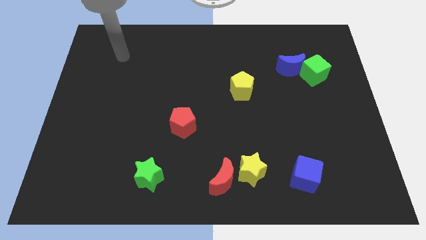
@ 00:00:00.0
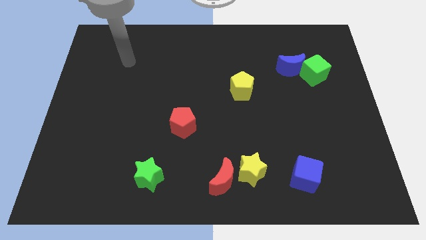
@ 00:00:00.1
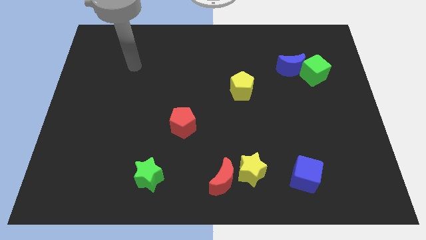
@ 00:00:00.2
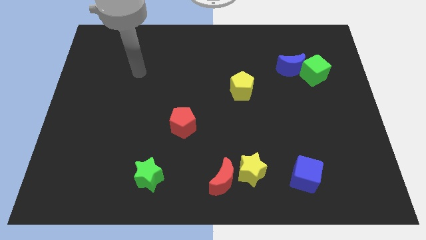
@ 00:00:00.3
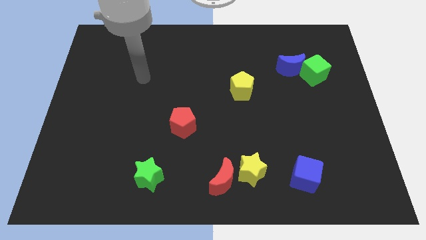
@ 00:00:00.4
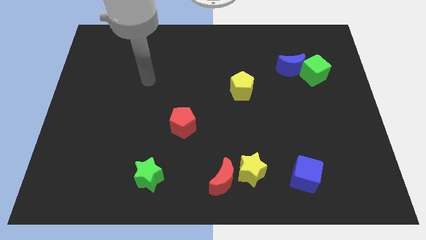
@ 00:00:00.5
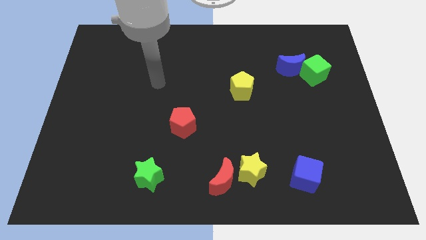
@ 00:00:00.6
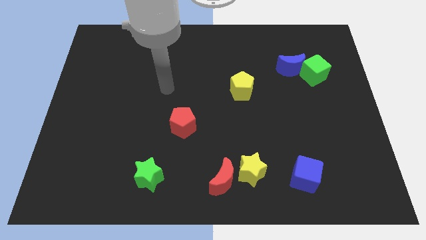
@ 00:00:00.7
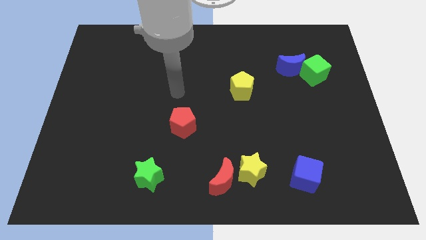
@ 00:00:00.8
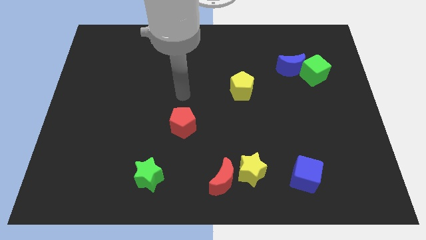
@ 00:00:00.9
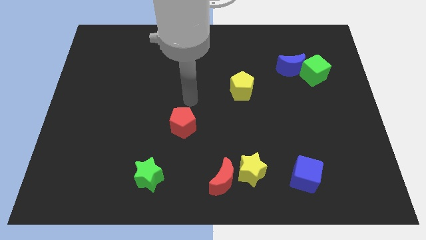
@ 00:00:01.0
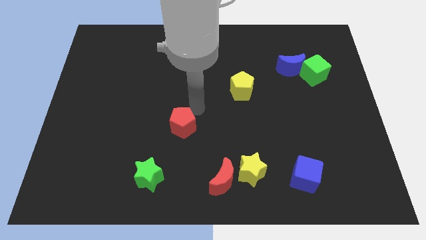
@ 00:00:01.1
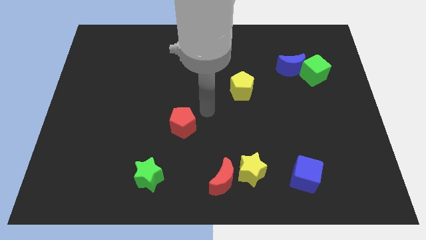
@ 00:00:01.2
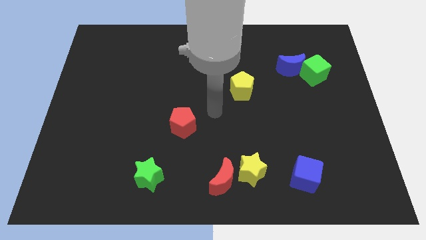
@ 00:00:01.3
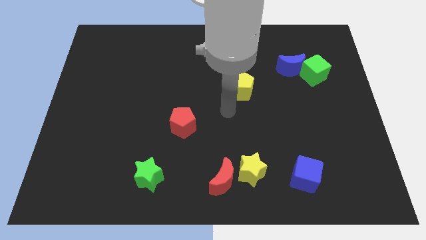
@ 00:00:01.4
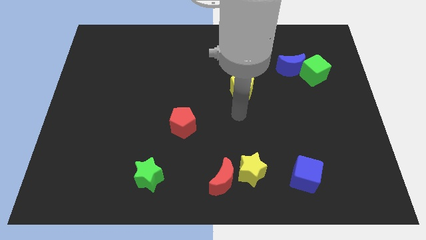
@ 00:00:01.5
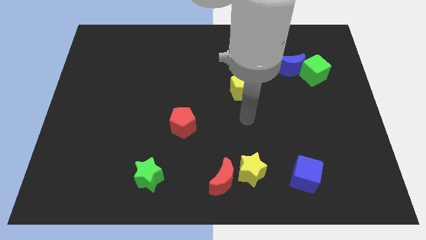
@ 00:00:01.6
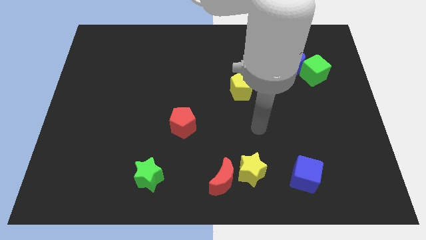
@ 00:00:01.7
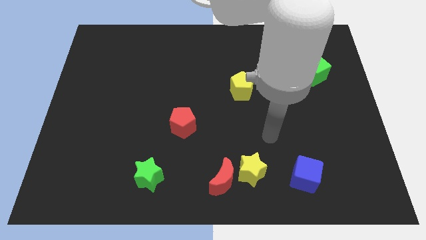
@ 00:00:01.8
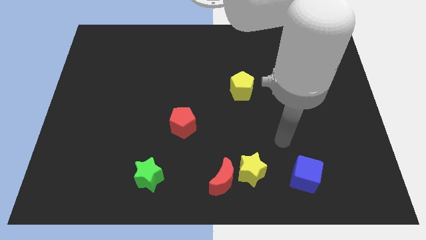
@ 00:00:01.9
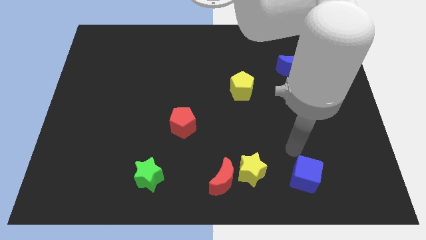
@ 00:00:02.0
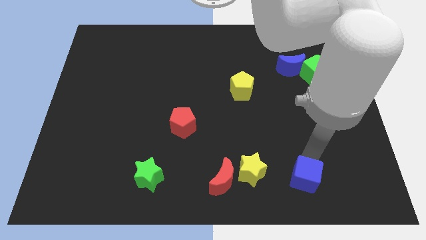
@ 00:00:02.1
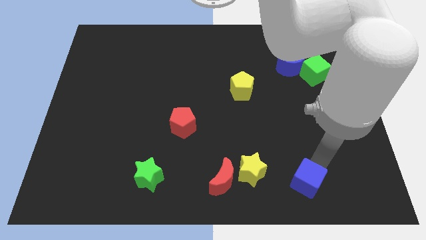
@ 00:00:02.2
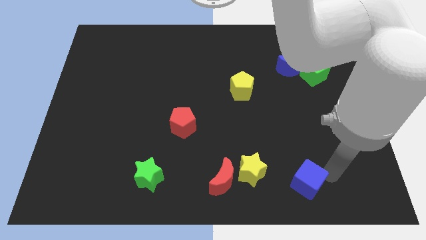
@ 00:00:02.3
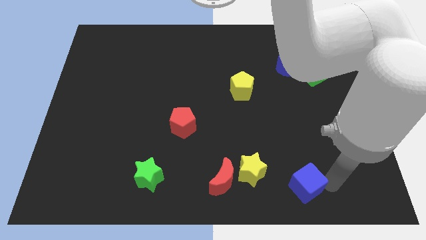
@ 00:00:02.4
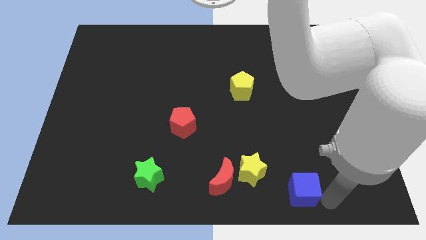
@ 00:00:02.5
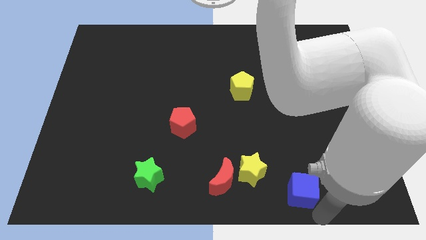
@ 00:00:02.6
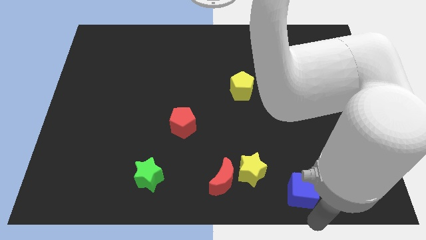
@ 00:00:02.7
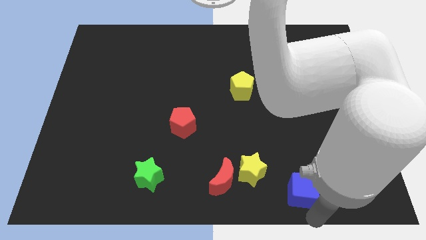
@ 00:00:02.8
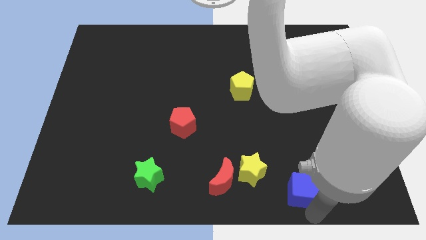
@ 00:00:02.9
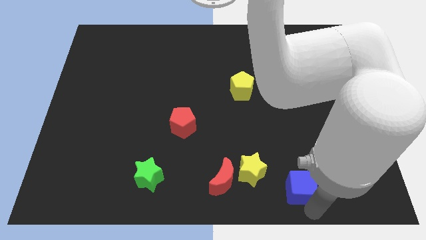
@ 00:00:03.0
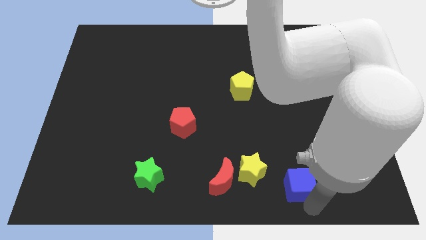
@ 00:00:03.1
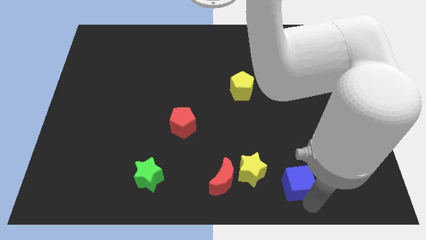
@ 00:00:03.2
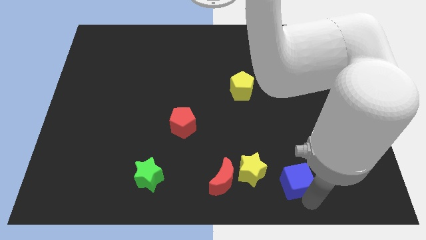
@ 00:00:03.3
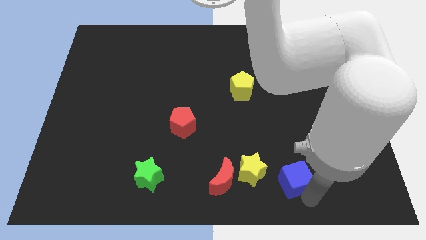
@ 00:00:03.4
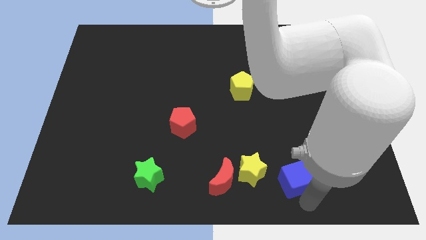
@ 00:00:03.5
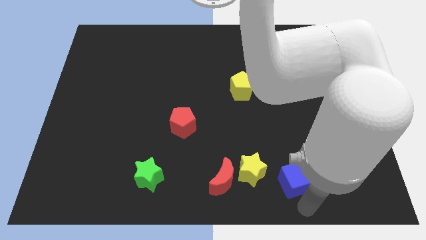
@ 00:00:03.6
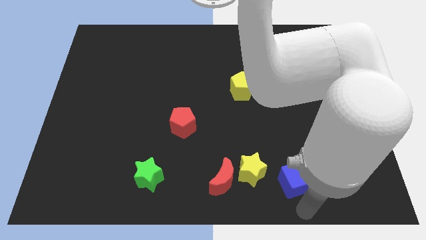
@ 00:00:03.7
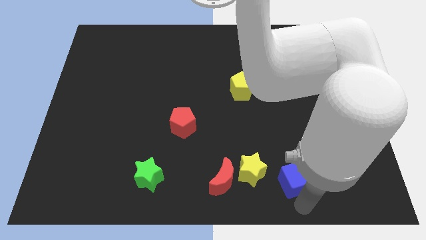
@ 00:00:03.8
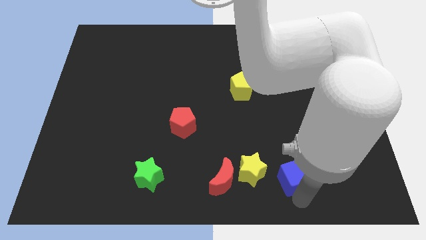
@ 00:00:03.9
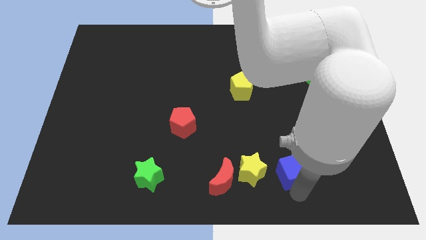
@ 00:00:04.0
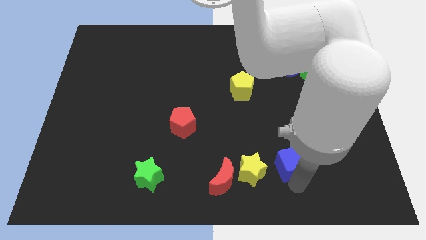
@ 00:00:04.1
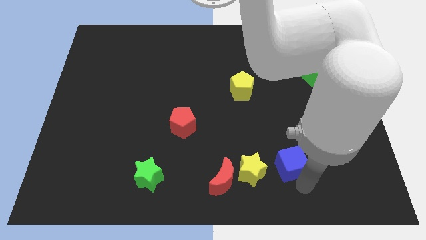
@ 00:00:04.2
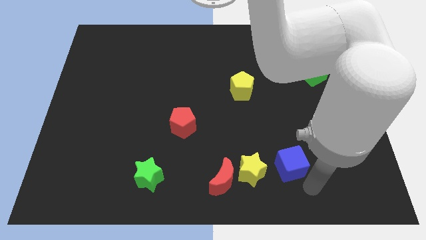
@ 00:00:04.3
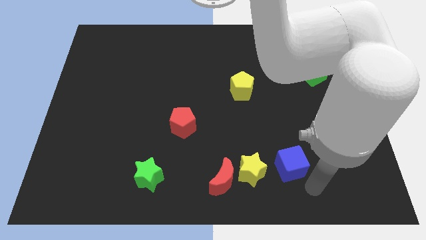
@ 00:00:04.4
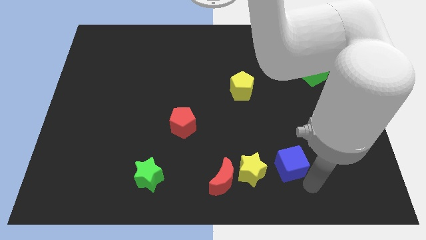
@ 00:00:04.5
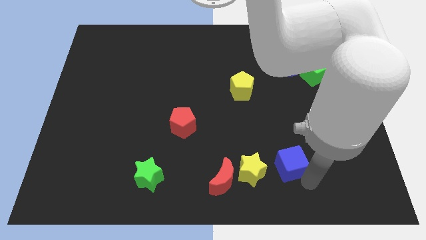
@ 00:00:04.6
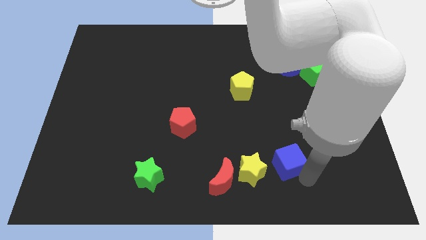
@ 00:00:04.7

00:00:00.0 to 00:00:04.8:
put the blue cube diagonally up and to the right of the yellow star

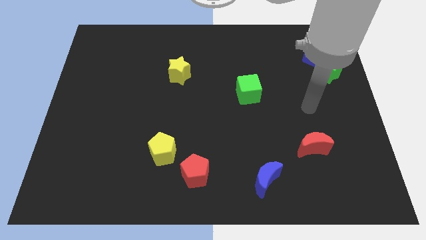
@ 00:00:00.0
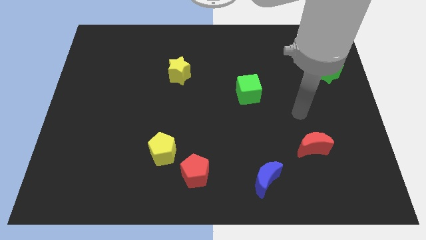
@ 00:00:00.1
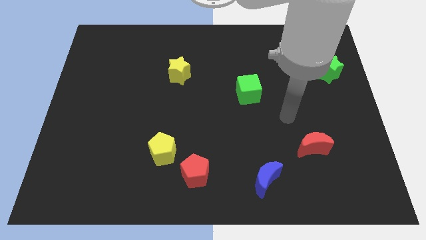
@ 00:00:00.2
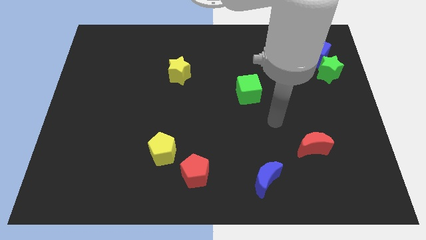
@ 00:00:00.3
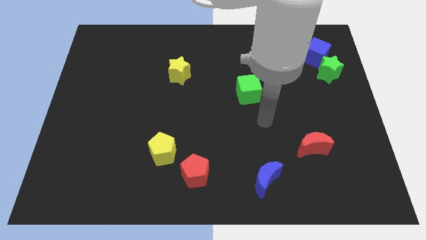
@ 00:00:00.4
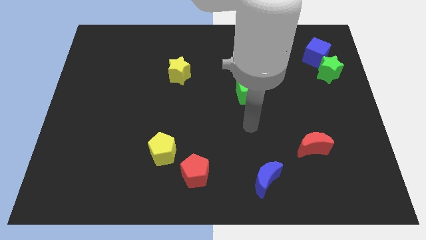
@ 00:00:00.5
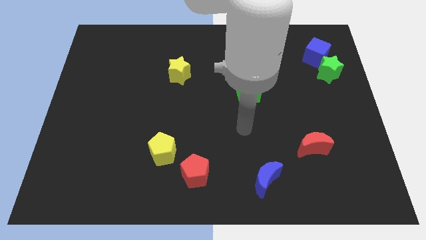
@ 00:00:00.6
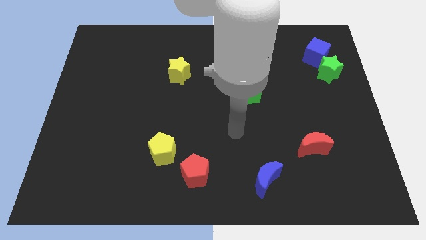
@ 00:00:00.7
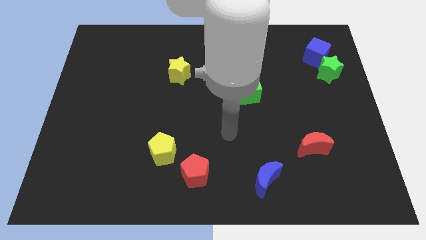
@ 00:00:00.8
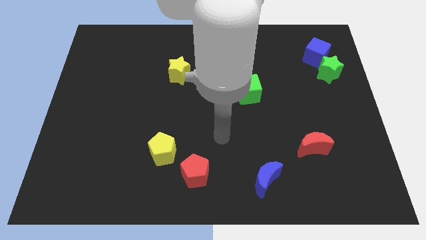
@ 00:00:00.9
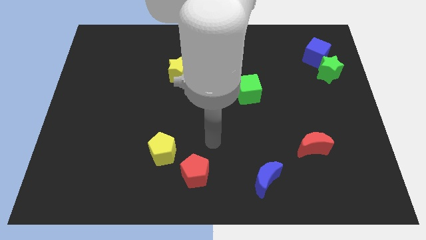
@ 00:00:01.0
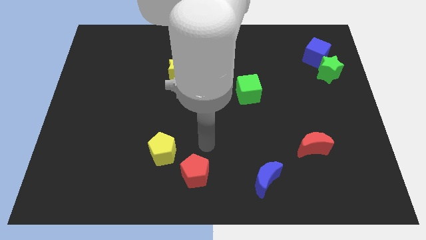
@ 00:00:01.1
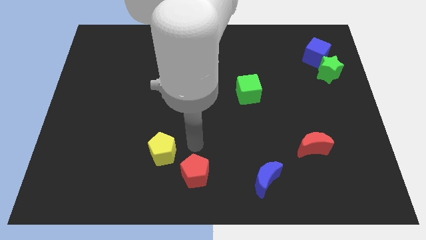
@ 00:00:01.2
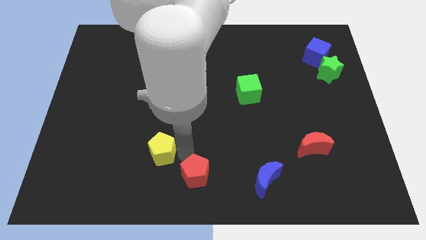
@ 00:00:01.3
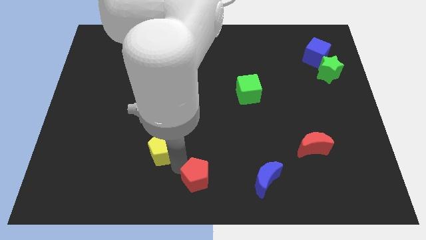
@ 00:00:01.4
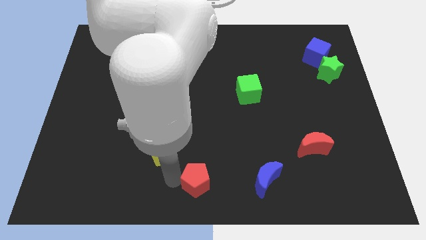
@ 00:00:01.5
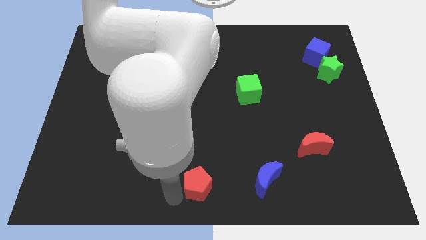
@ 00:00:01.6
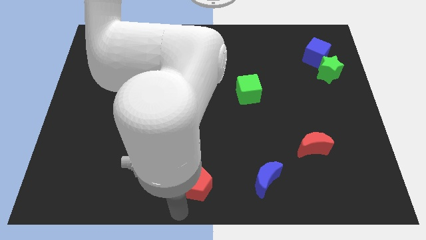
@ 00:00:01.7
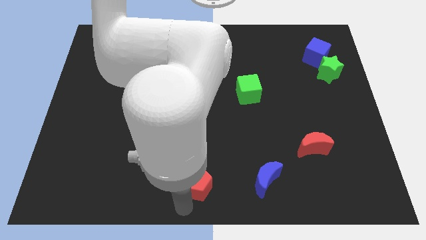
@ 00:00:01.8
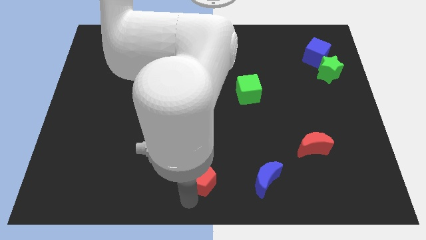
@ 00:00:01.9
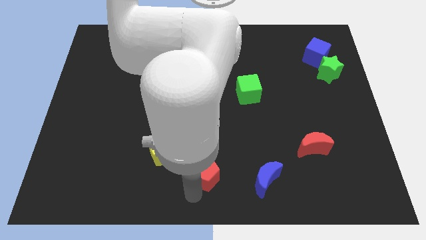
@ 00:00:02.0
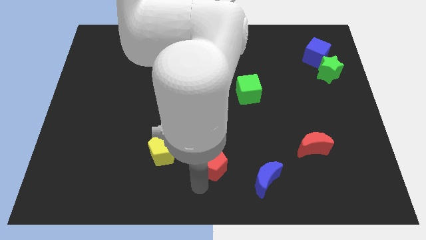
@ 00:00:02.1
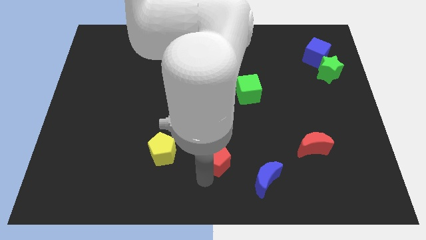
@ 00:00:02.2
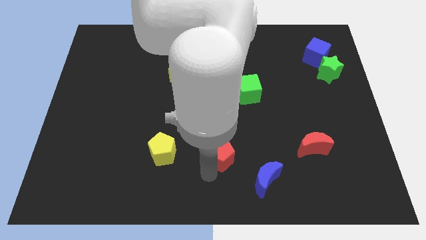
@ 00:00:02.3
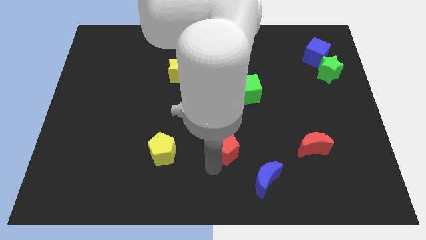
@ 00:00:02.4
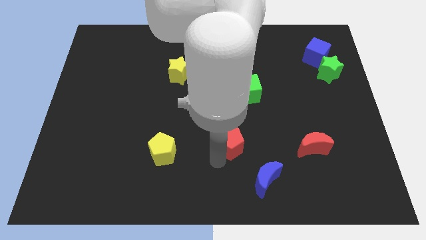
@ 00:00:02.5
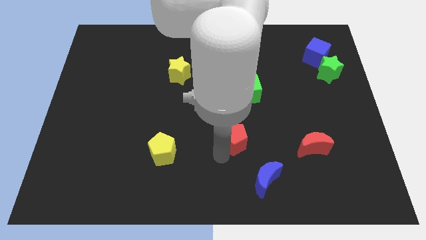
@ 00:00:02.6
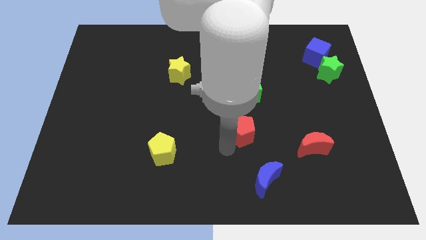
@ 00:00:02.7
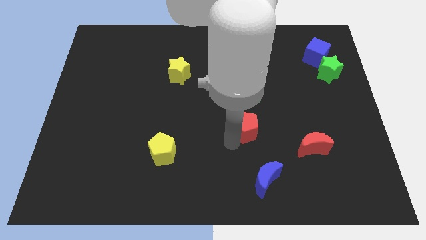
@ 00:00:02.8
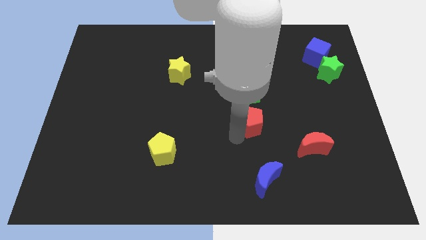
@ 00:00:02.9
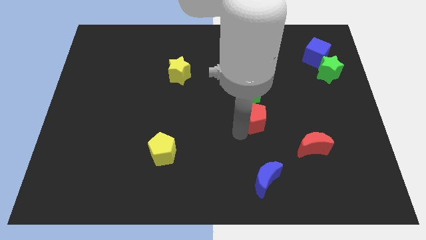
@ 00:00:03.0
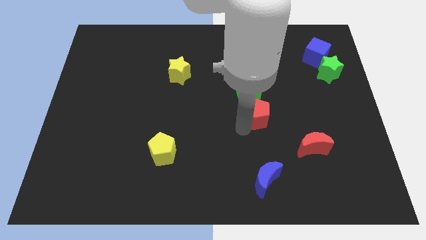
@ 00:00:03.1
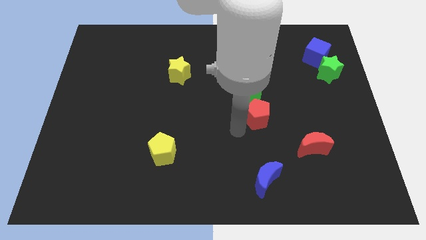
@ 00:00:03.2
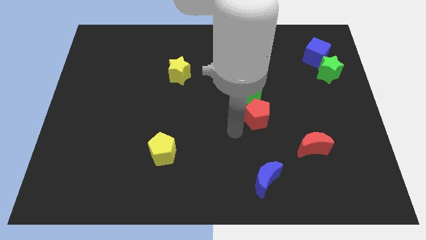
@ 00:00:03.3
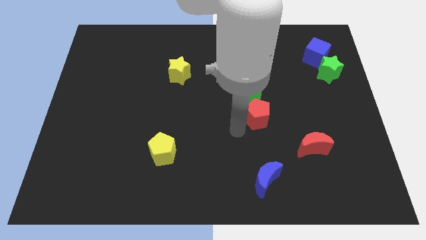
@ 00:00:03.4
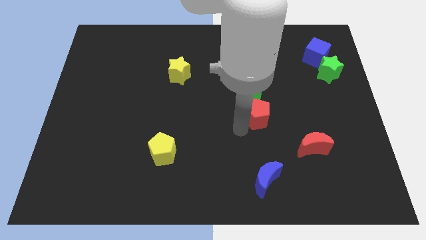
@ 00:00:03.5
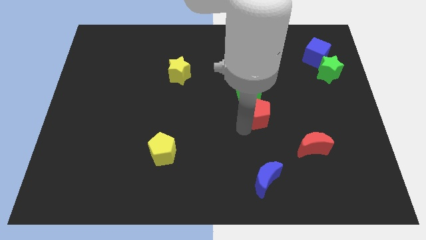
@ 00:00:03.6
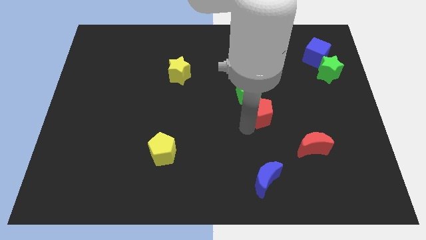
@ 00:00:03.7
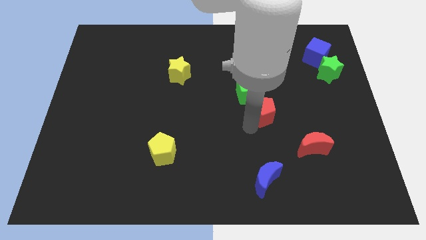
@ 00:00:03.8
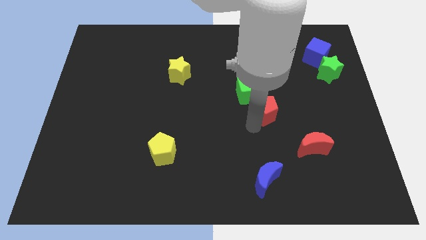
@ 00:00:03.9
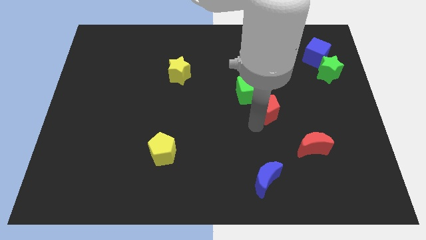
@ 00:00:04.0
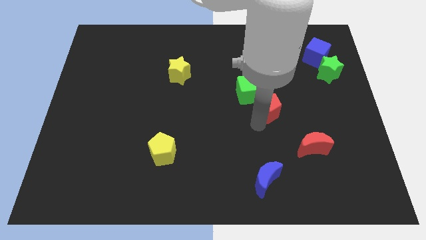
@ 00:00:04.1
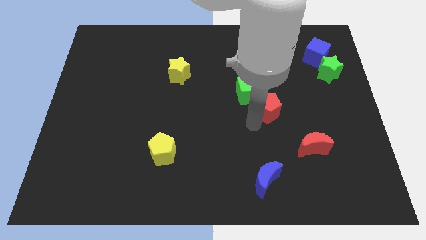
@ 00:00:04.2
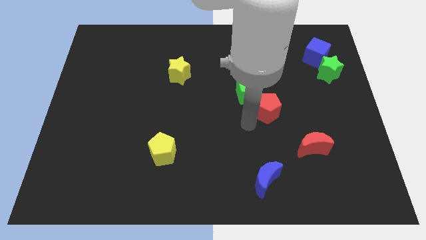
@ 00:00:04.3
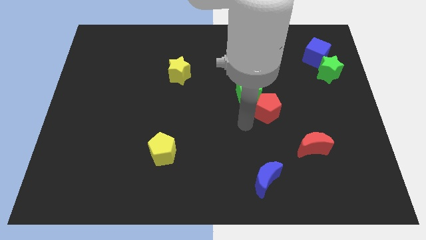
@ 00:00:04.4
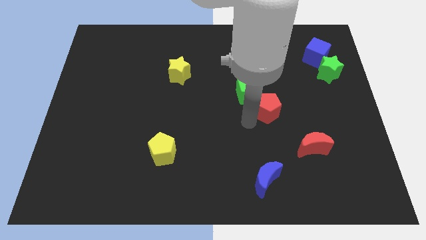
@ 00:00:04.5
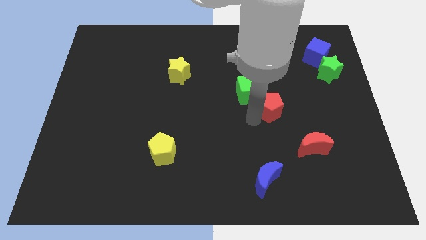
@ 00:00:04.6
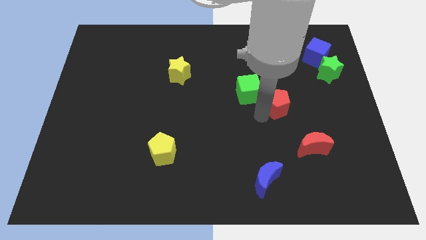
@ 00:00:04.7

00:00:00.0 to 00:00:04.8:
slide the red pentagon to the right of the green cube
